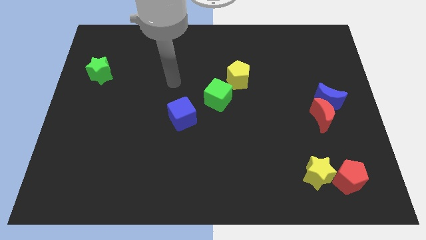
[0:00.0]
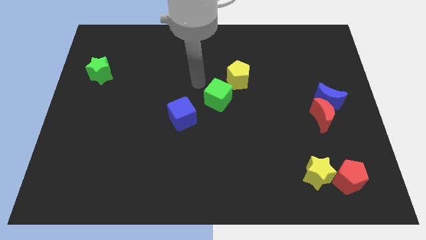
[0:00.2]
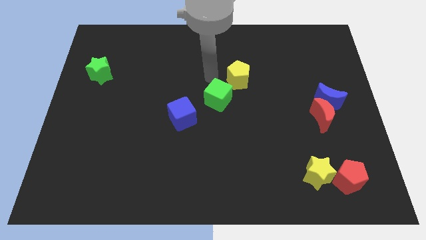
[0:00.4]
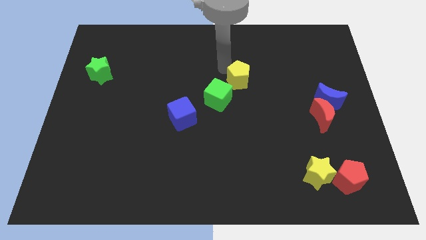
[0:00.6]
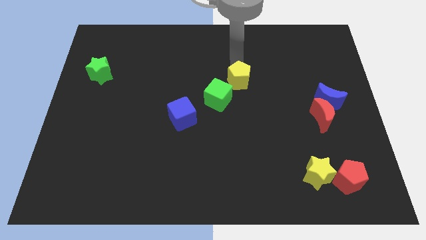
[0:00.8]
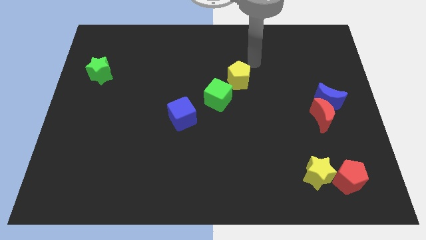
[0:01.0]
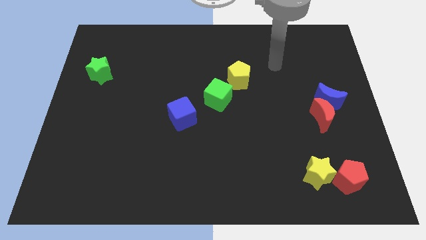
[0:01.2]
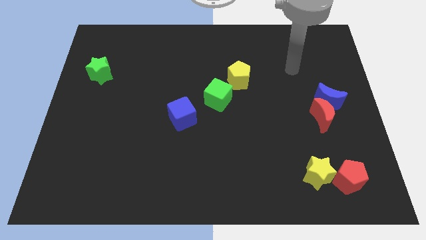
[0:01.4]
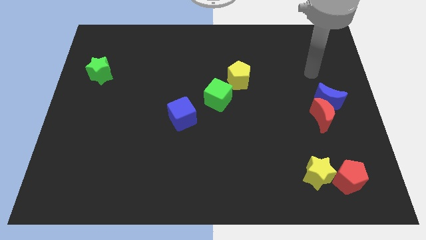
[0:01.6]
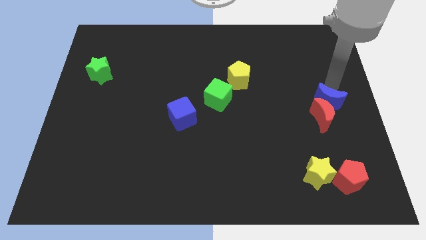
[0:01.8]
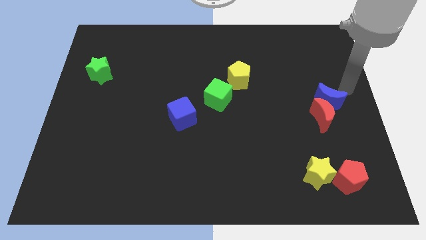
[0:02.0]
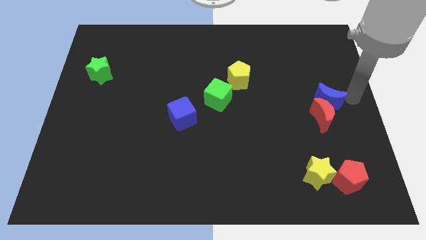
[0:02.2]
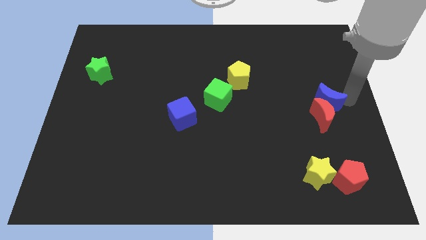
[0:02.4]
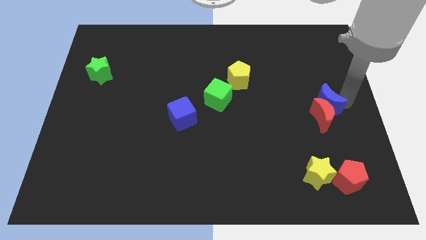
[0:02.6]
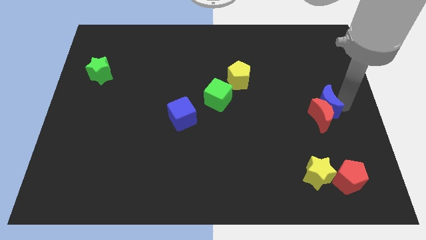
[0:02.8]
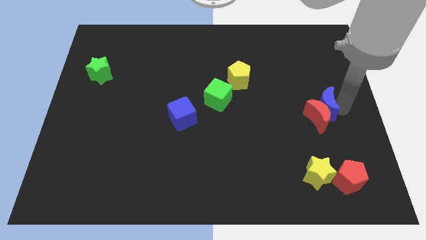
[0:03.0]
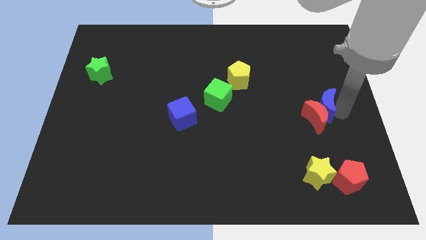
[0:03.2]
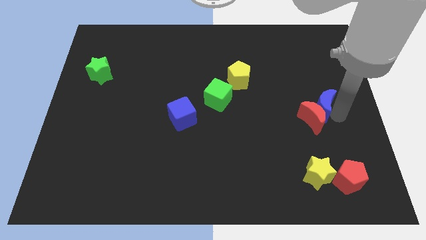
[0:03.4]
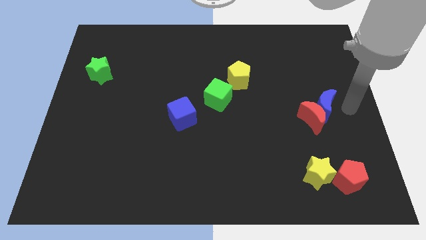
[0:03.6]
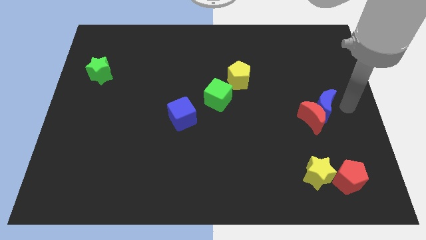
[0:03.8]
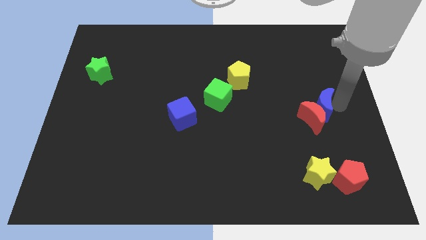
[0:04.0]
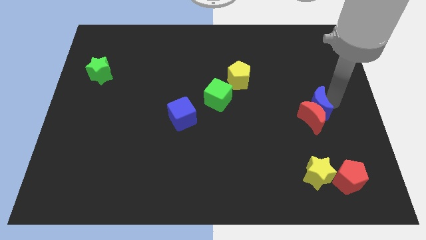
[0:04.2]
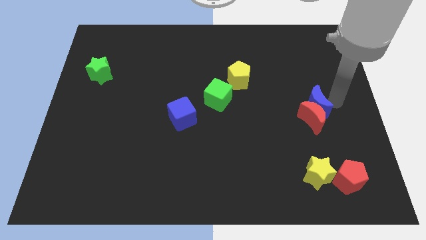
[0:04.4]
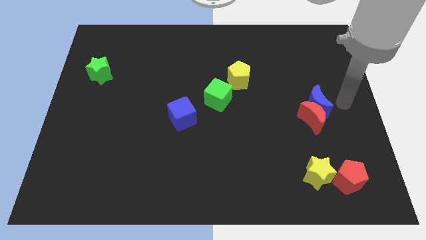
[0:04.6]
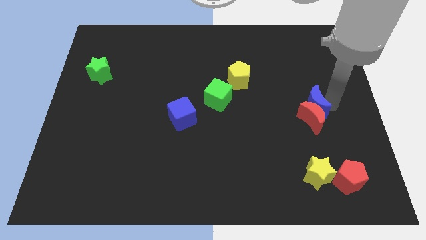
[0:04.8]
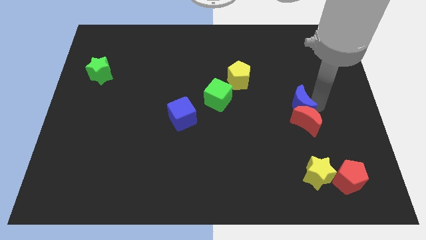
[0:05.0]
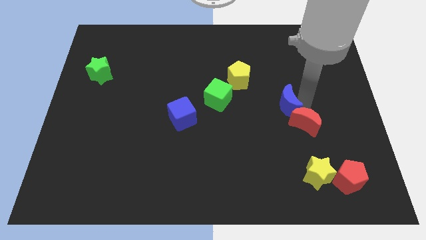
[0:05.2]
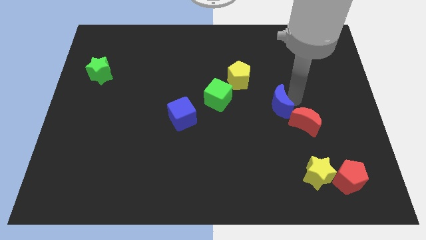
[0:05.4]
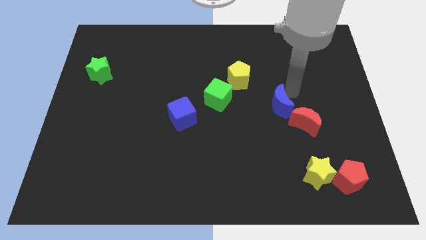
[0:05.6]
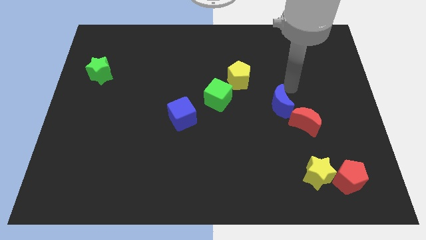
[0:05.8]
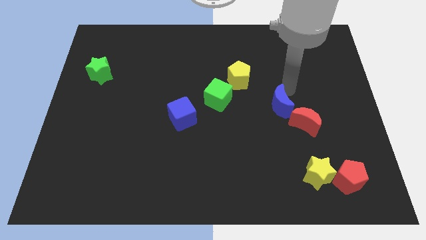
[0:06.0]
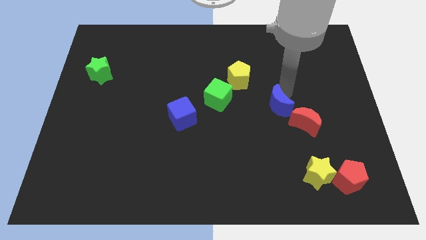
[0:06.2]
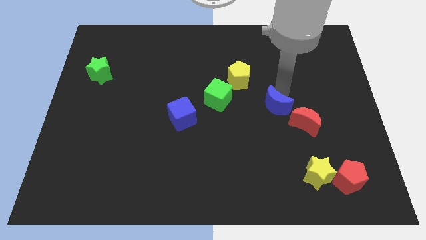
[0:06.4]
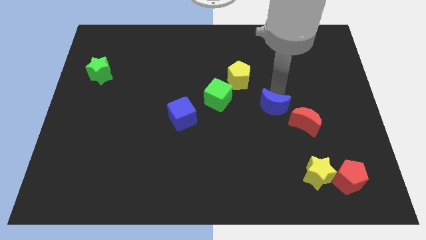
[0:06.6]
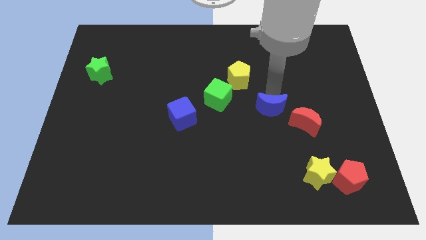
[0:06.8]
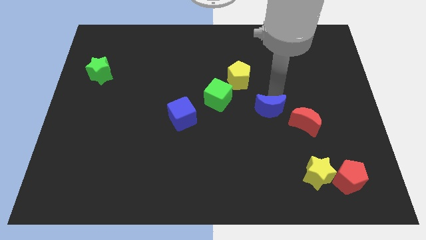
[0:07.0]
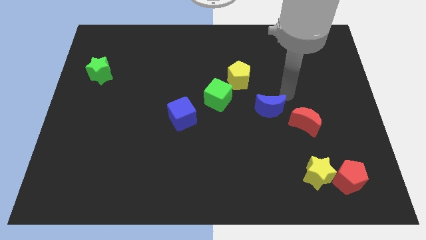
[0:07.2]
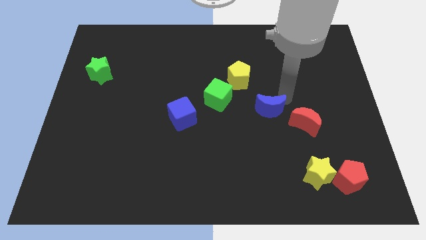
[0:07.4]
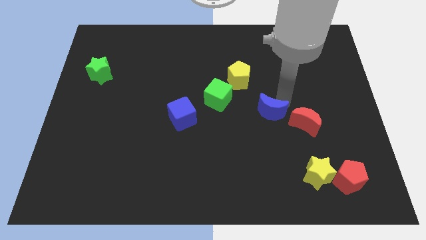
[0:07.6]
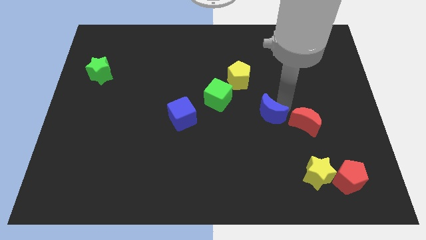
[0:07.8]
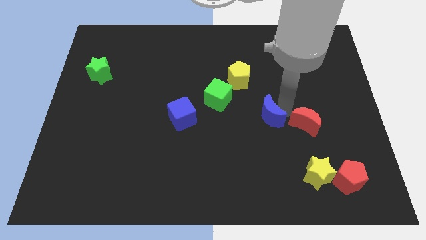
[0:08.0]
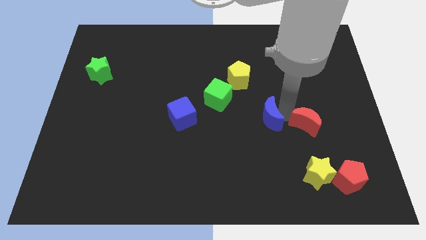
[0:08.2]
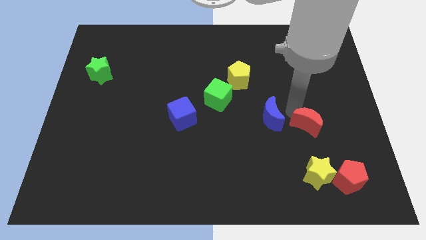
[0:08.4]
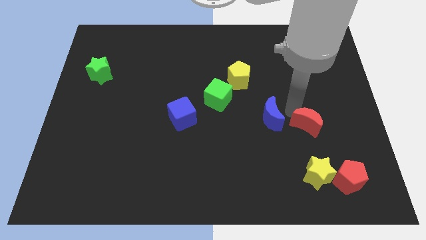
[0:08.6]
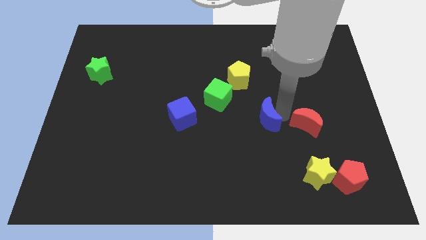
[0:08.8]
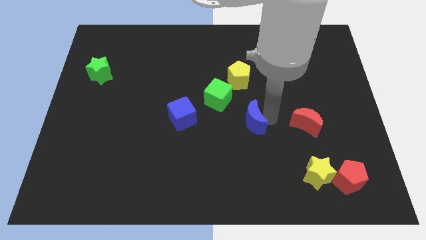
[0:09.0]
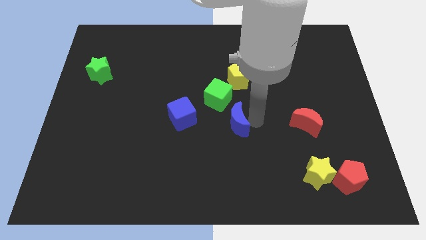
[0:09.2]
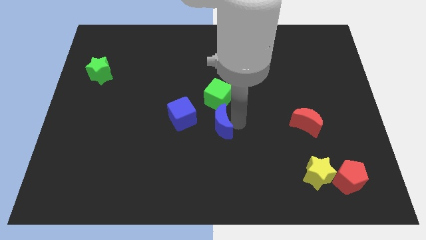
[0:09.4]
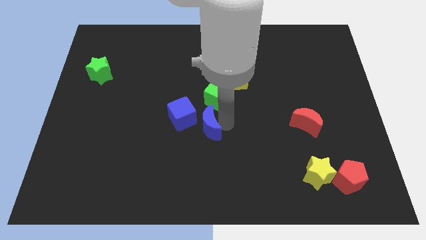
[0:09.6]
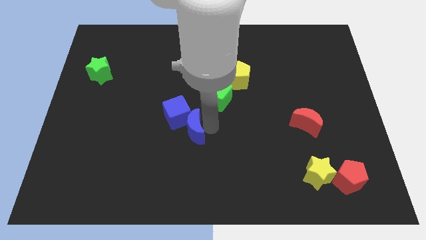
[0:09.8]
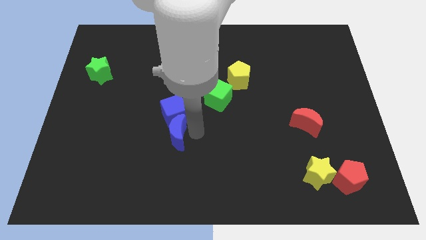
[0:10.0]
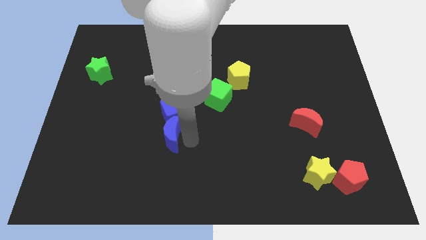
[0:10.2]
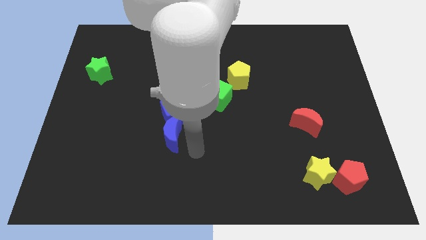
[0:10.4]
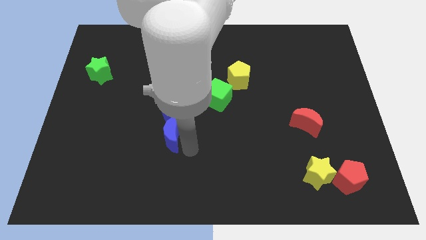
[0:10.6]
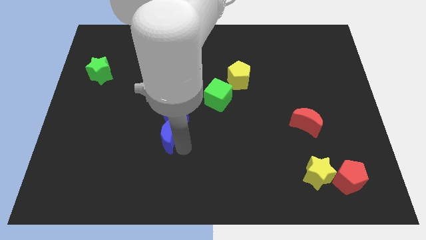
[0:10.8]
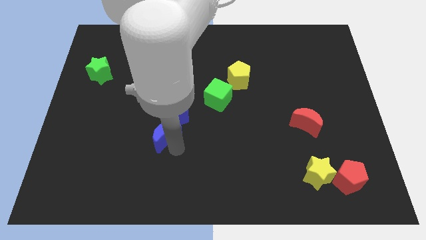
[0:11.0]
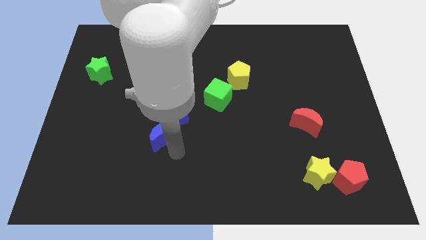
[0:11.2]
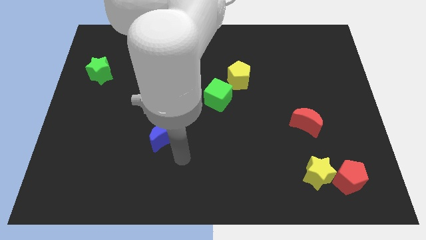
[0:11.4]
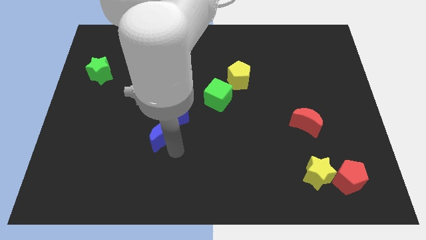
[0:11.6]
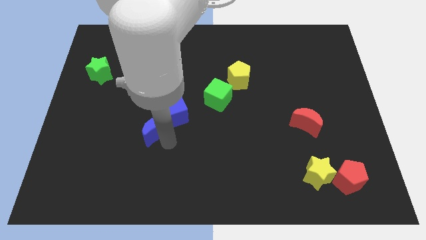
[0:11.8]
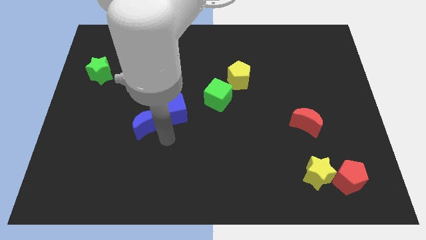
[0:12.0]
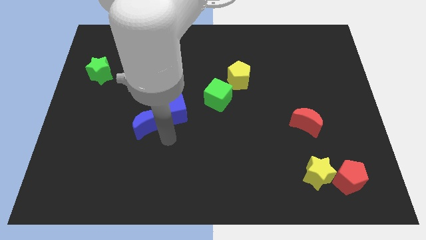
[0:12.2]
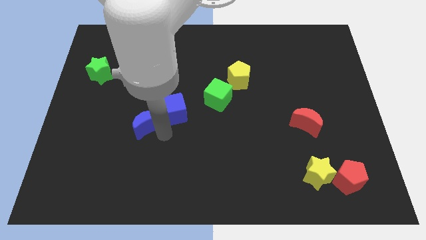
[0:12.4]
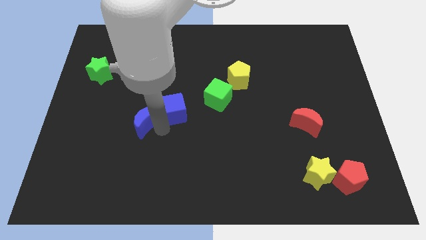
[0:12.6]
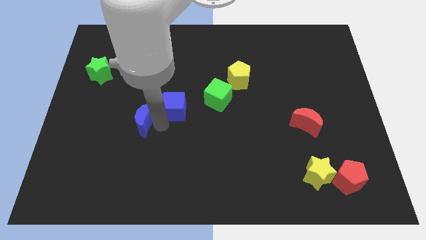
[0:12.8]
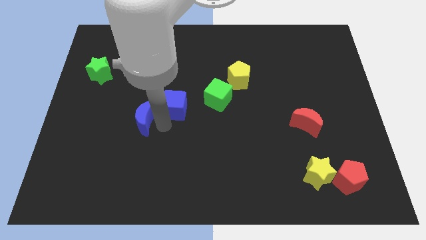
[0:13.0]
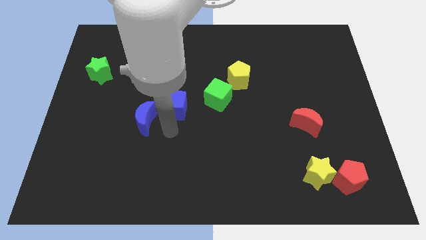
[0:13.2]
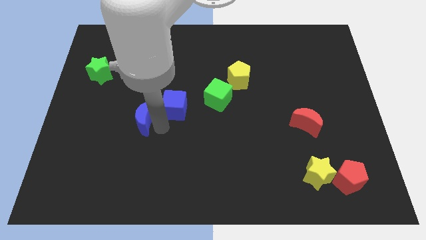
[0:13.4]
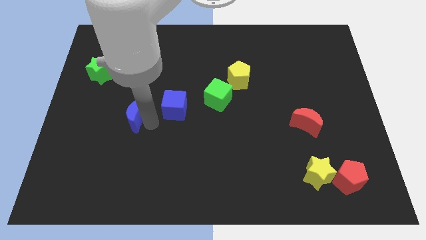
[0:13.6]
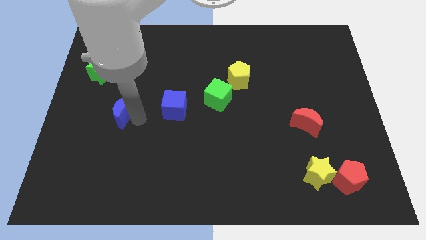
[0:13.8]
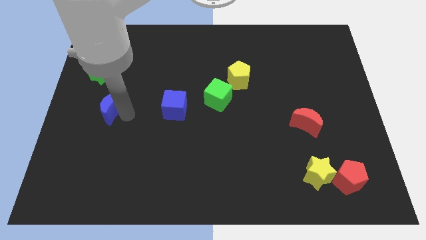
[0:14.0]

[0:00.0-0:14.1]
move the blue moon to the bottom of the green star

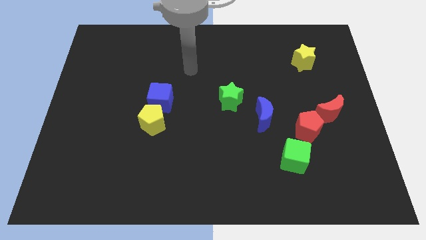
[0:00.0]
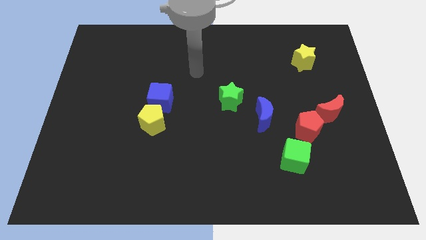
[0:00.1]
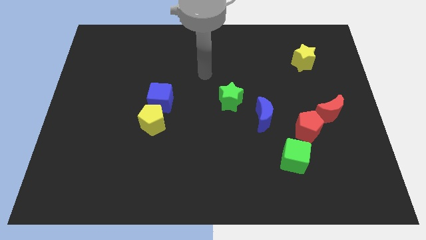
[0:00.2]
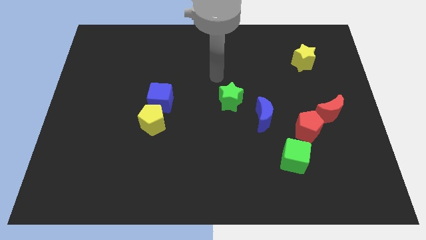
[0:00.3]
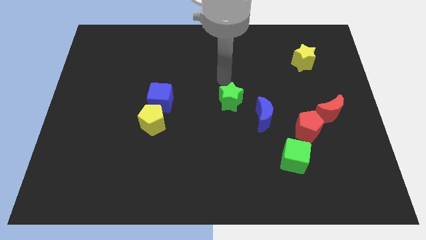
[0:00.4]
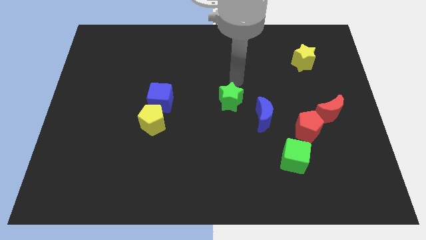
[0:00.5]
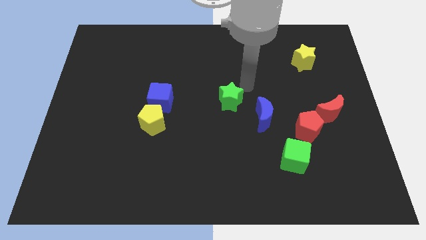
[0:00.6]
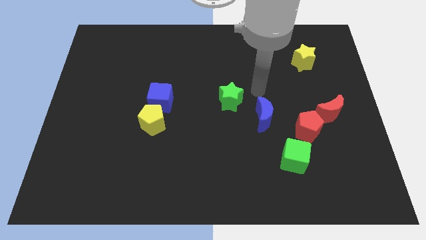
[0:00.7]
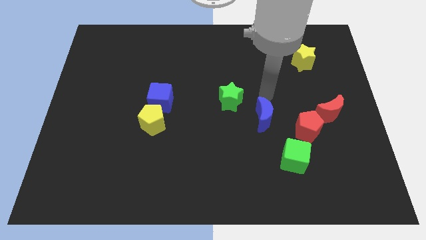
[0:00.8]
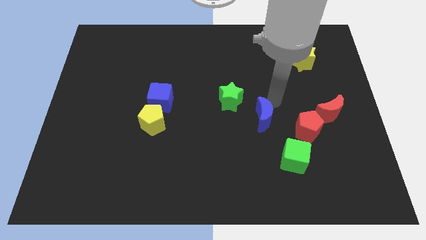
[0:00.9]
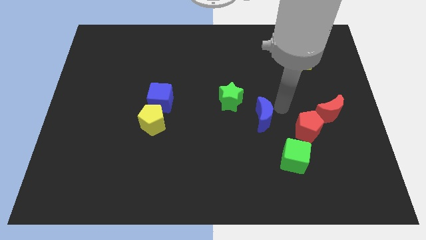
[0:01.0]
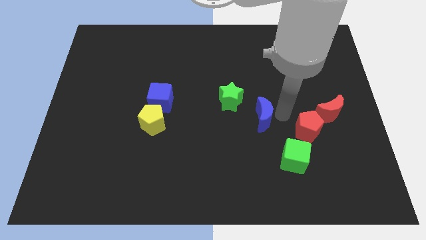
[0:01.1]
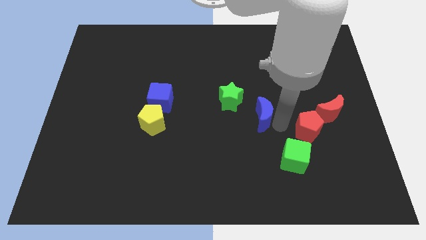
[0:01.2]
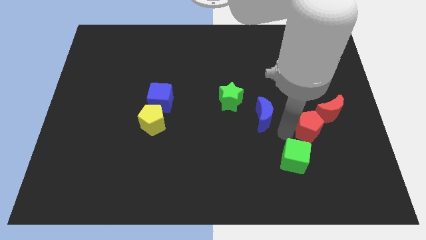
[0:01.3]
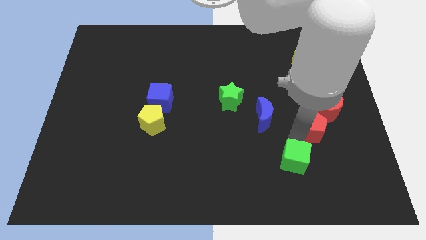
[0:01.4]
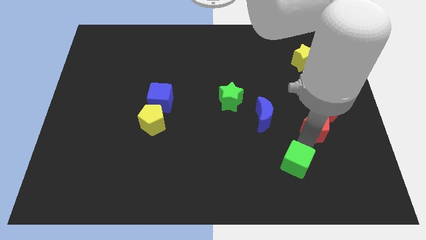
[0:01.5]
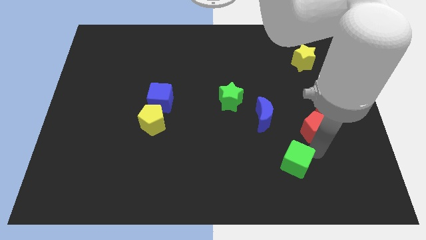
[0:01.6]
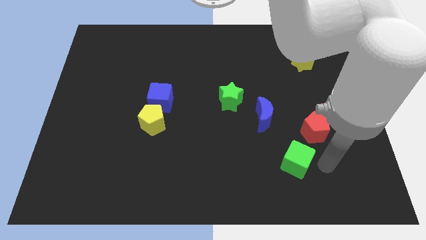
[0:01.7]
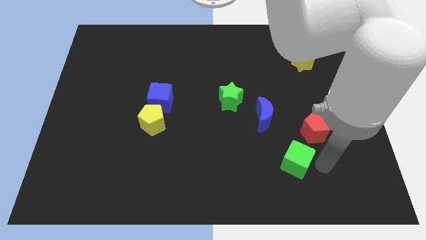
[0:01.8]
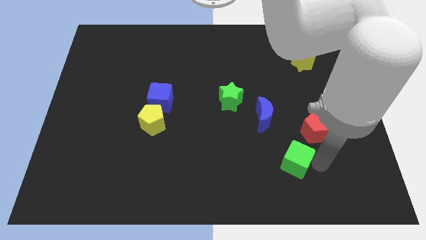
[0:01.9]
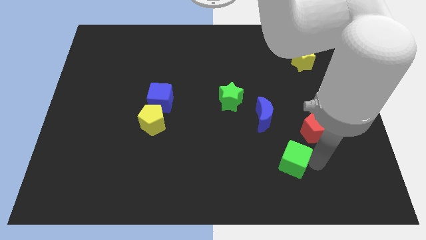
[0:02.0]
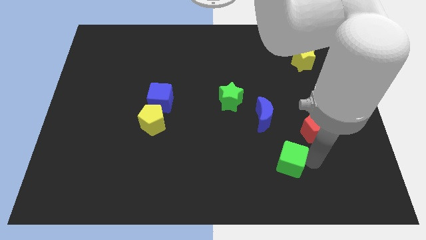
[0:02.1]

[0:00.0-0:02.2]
put the green cube below the blue moon
